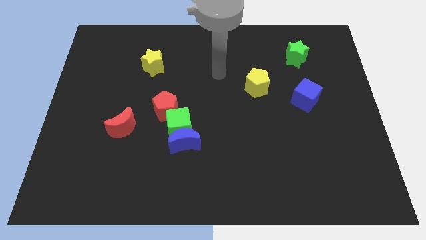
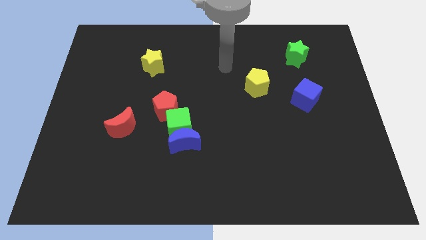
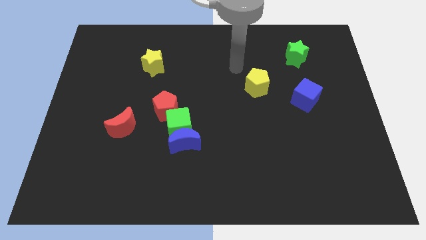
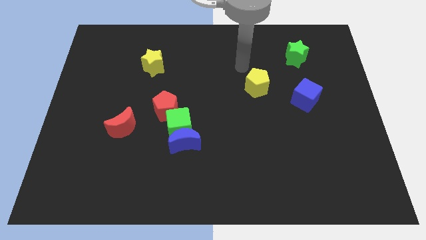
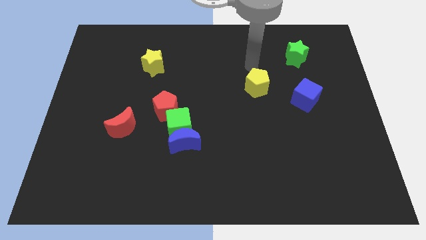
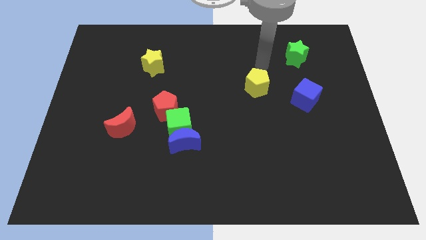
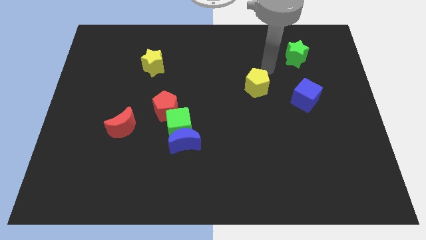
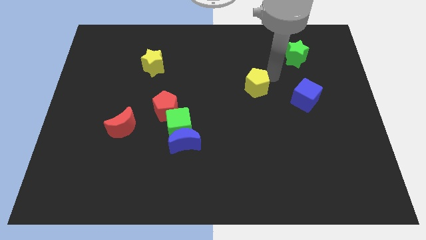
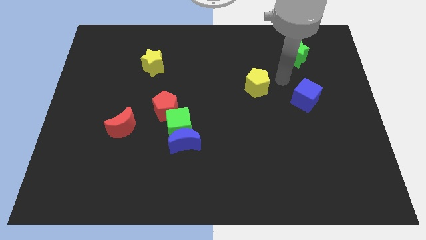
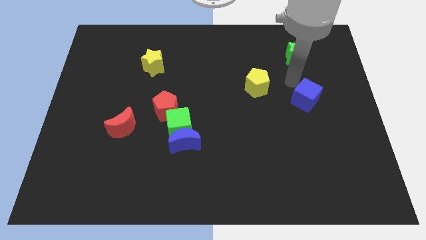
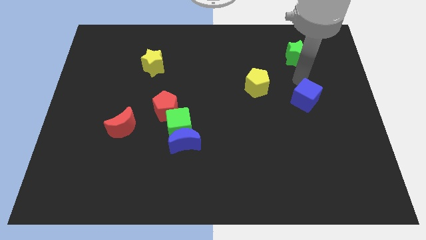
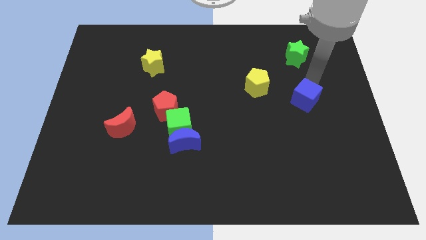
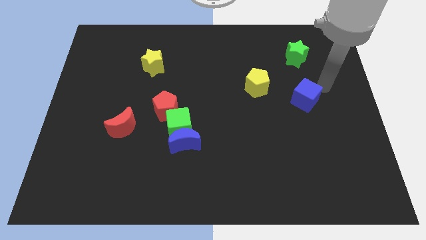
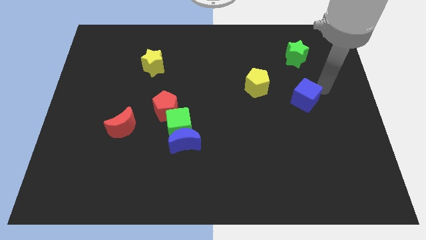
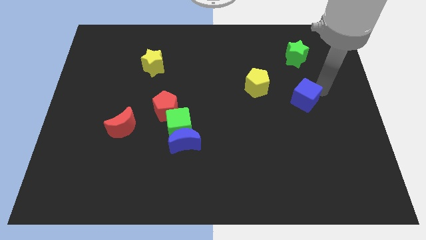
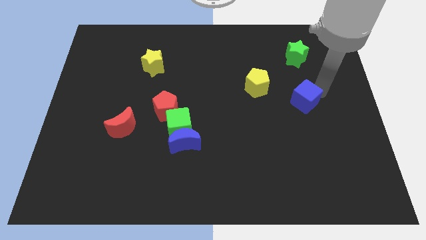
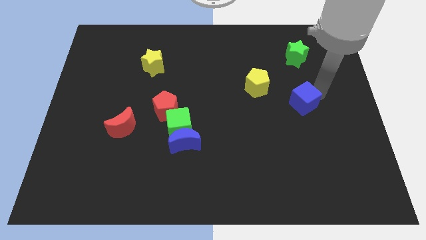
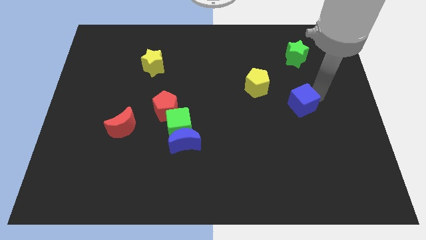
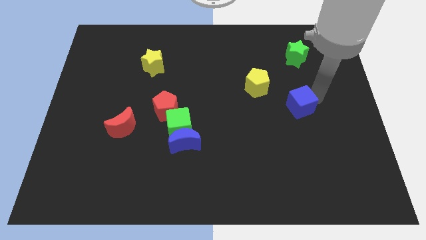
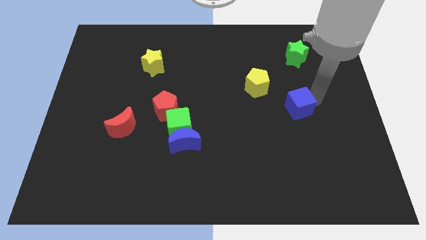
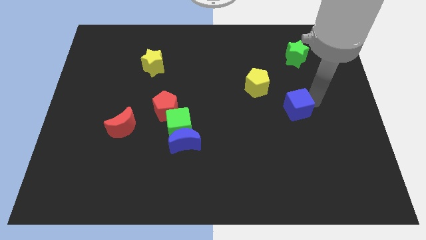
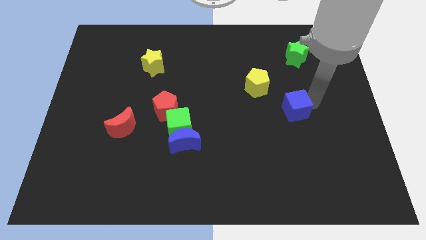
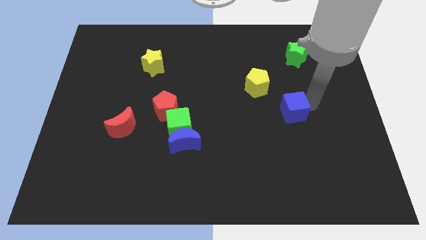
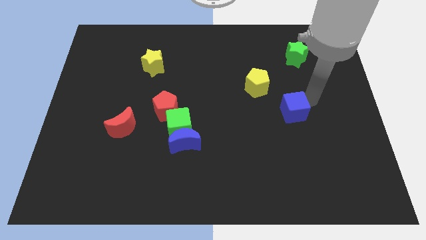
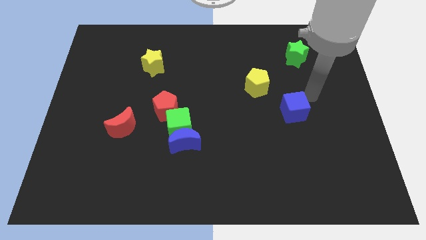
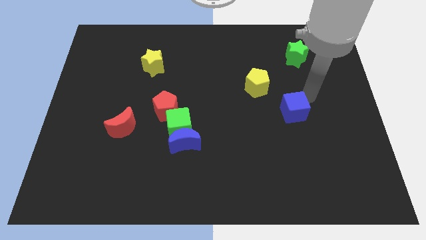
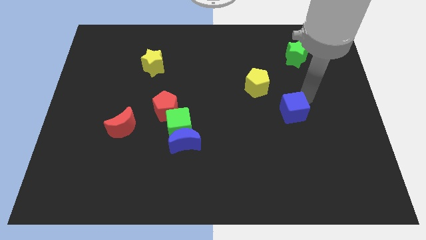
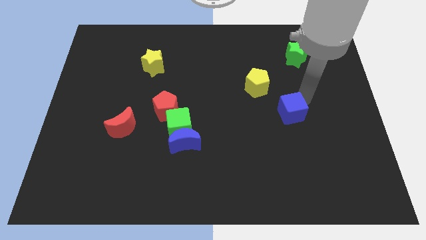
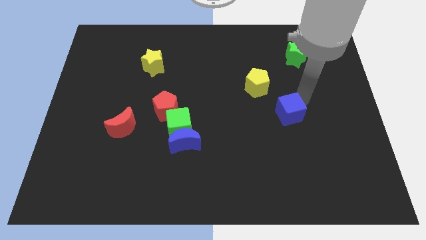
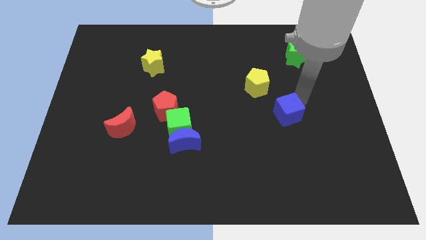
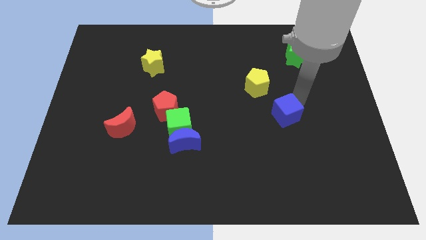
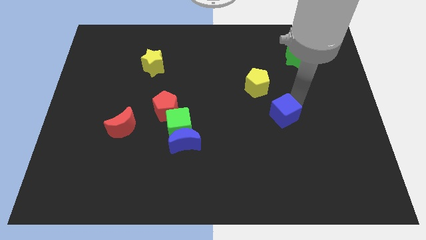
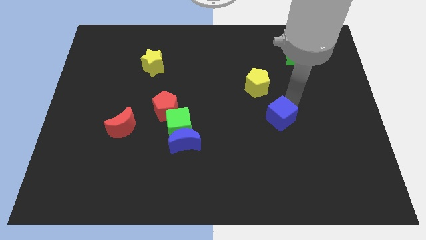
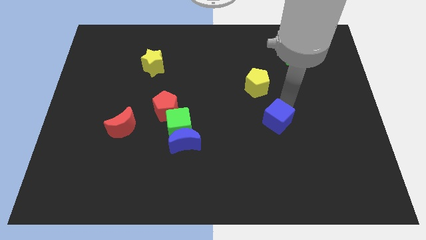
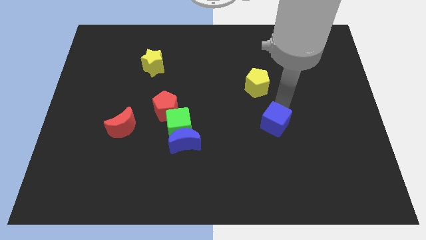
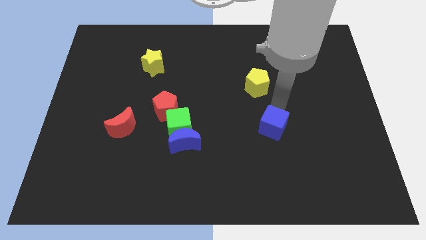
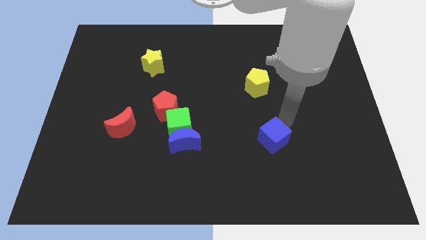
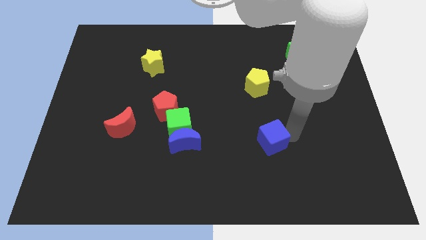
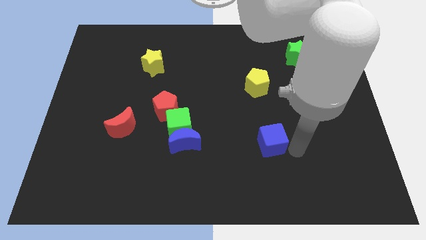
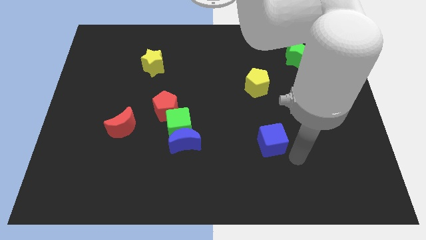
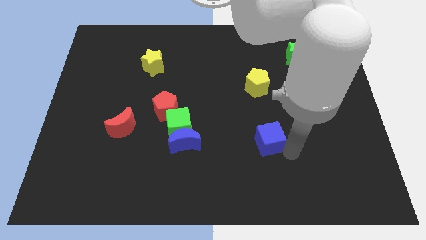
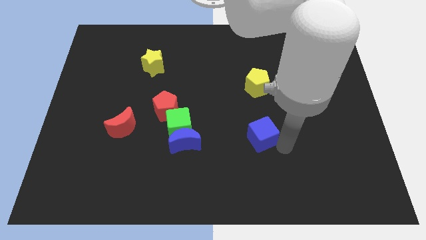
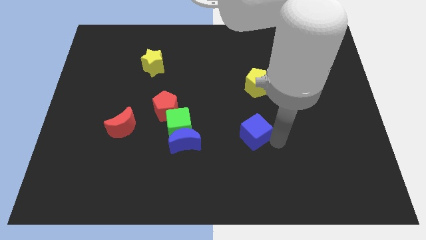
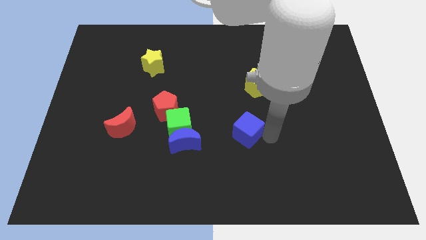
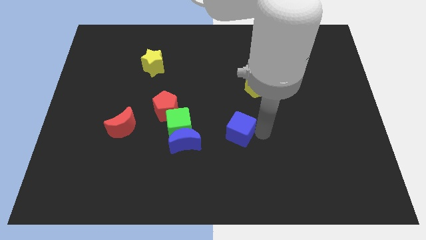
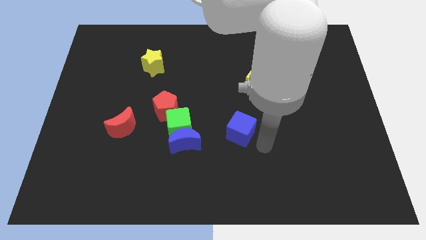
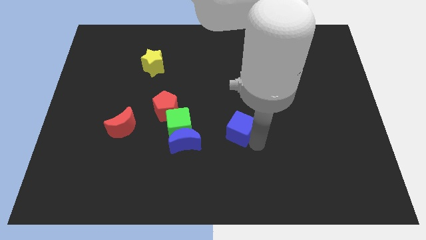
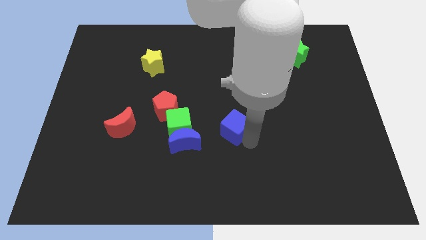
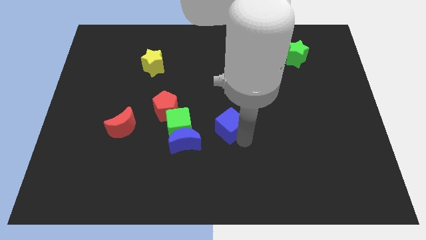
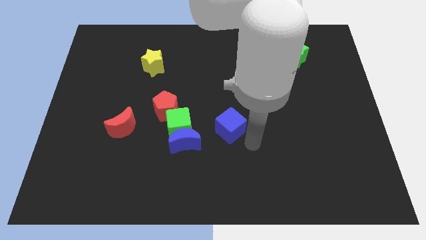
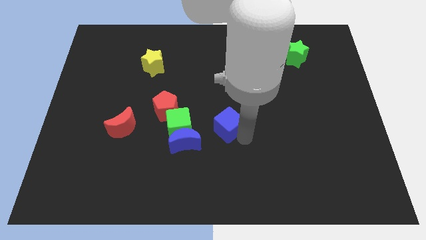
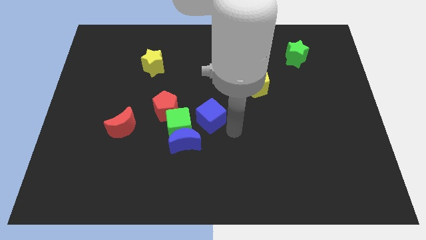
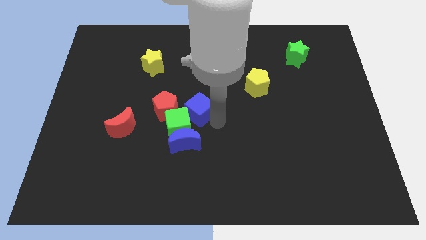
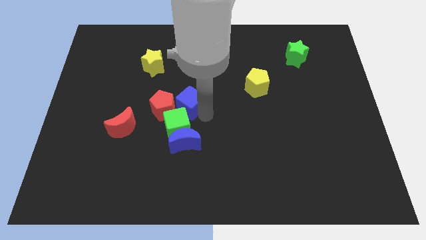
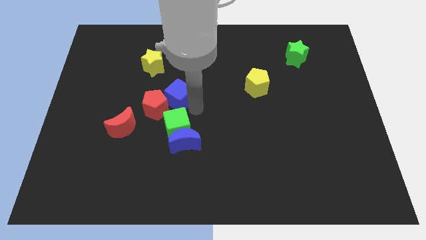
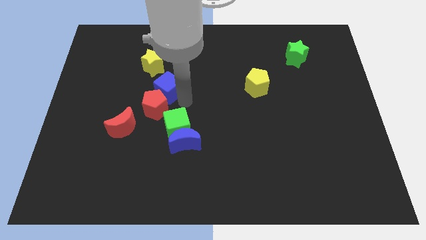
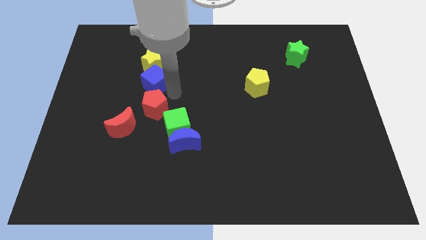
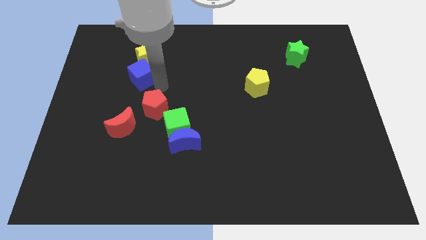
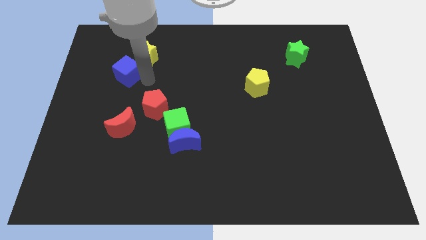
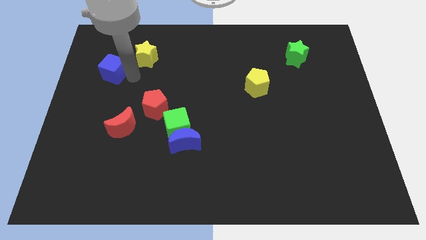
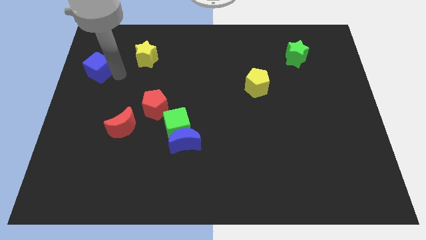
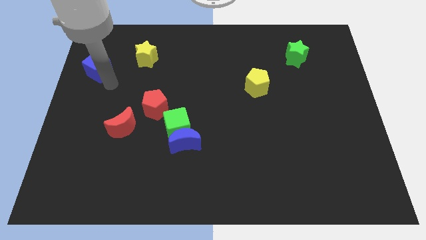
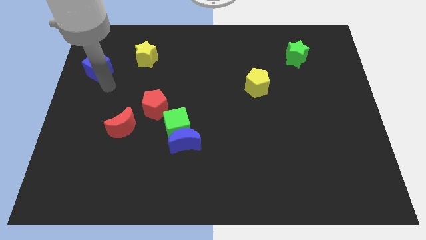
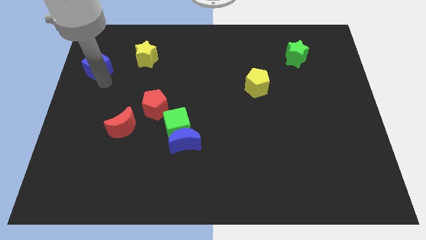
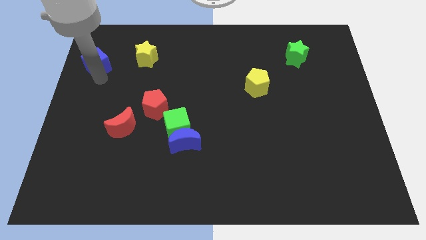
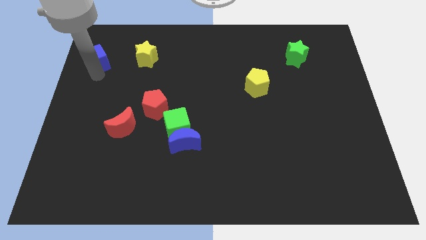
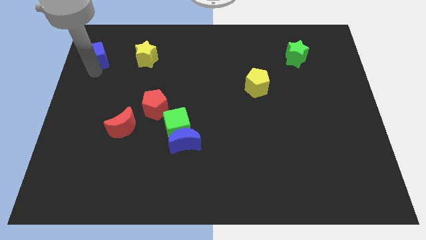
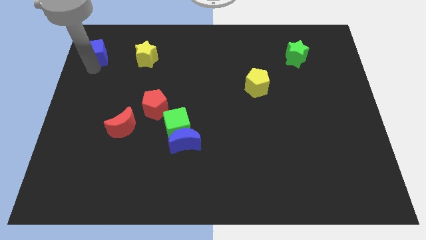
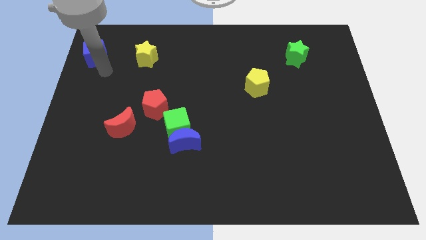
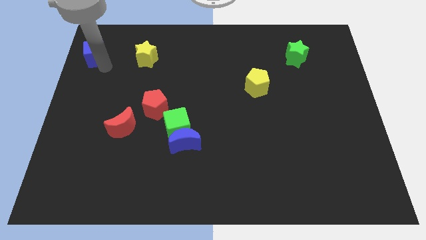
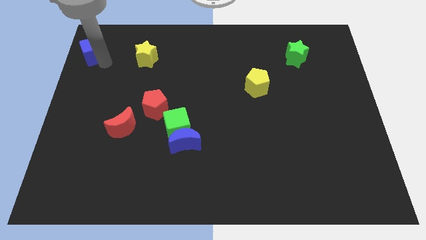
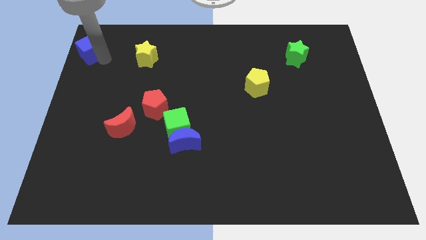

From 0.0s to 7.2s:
slide the blue cube to the top left
